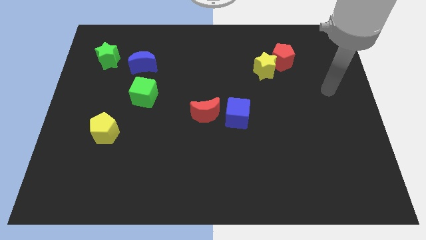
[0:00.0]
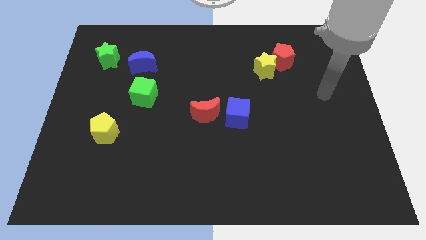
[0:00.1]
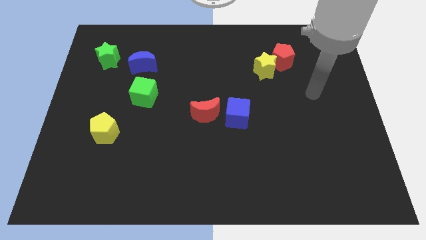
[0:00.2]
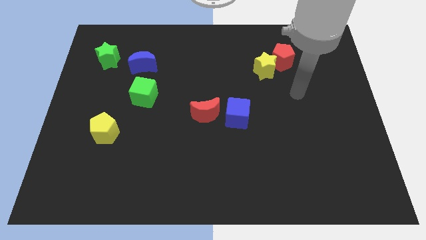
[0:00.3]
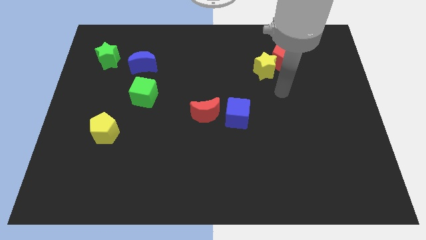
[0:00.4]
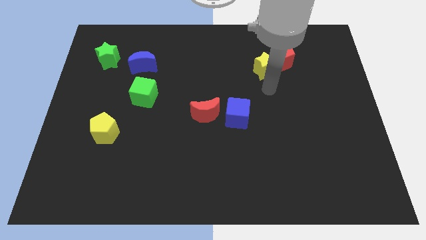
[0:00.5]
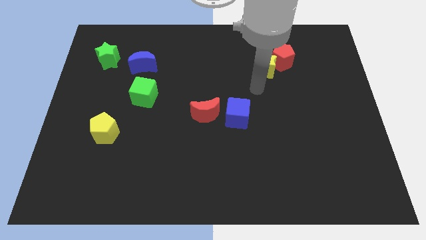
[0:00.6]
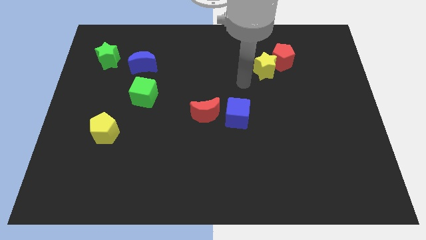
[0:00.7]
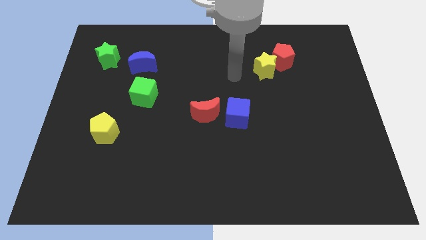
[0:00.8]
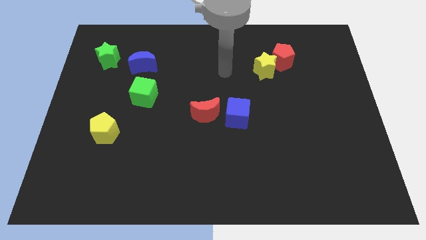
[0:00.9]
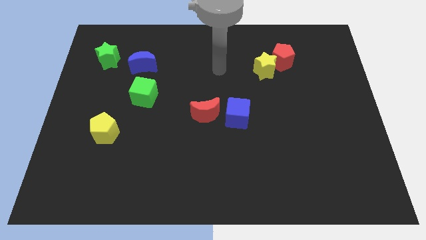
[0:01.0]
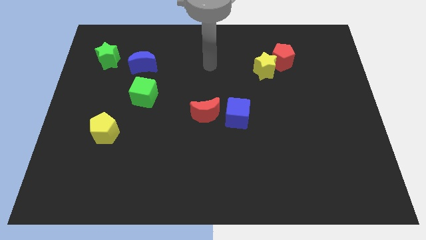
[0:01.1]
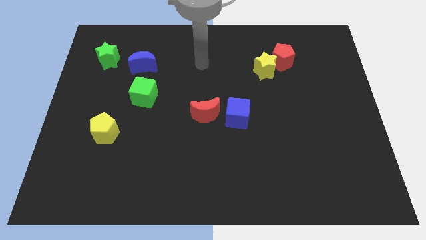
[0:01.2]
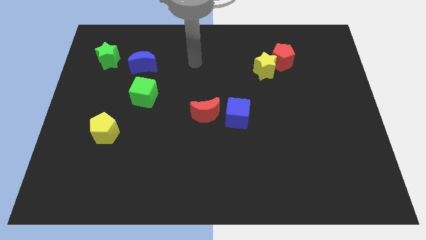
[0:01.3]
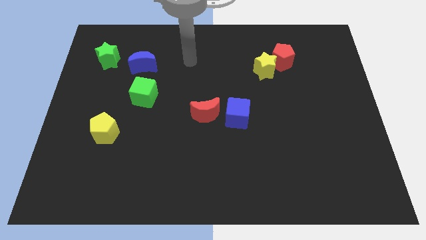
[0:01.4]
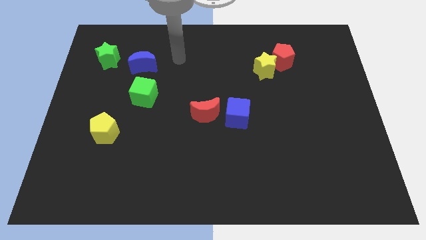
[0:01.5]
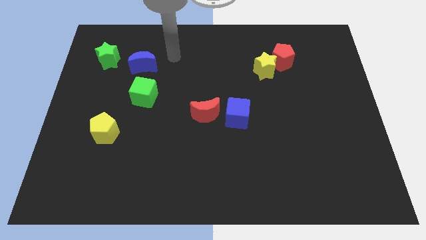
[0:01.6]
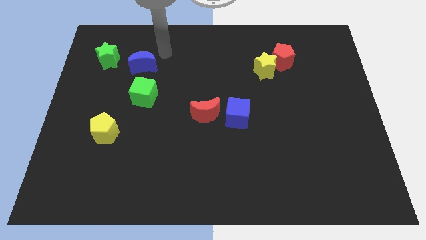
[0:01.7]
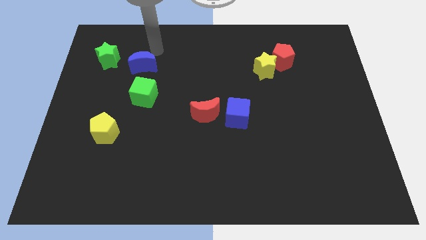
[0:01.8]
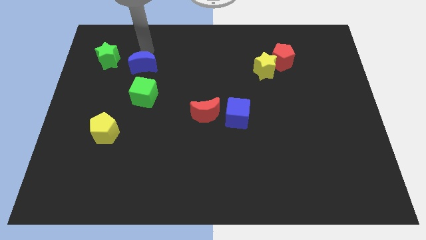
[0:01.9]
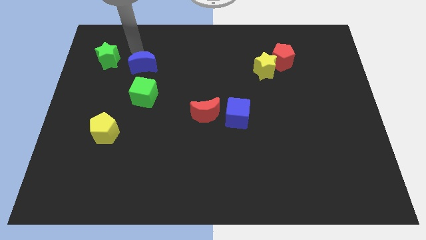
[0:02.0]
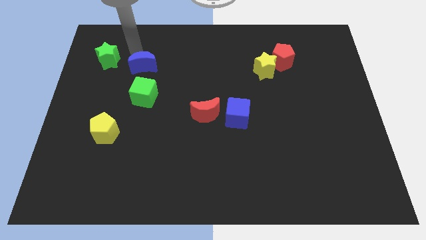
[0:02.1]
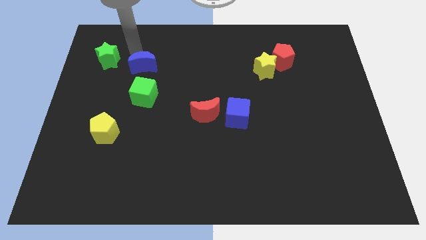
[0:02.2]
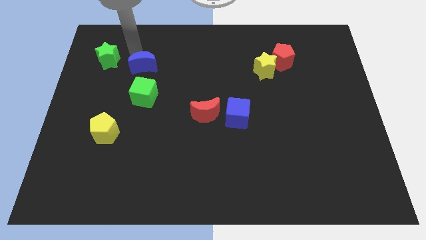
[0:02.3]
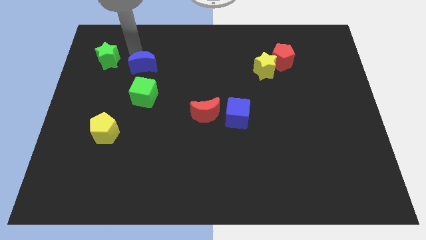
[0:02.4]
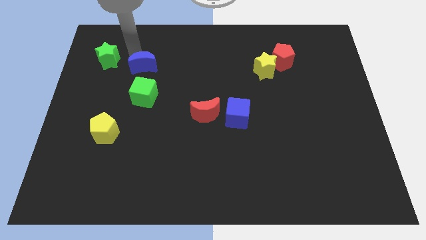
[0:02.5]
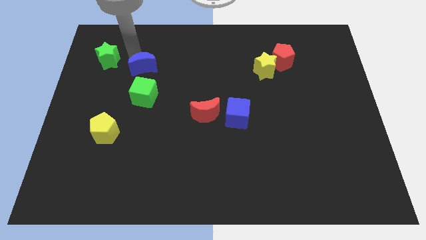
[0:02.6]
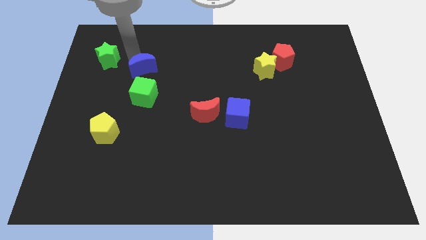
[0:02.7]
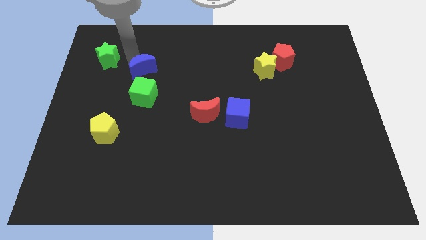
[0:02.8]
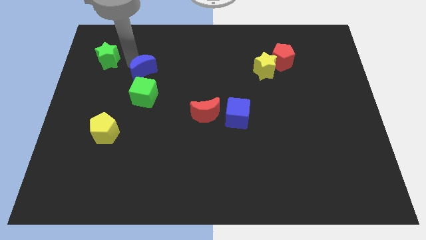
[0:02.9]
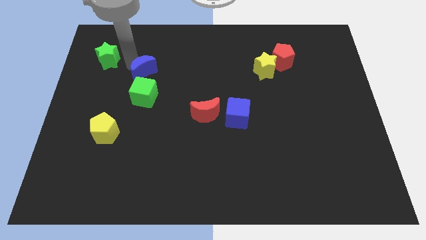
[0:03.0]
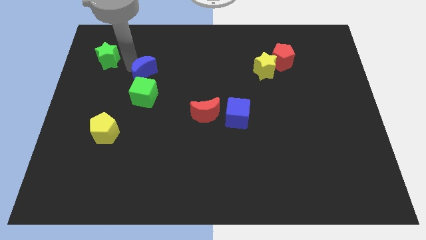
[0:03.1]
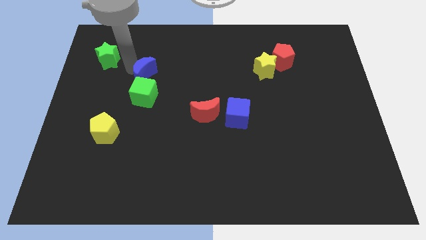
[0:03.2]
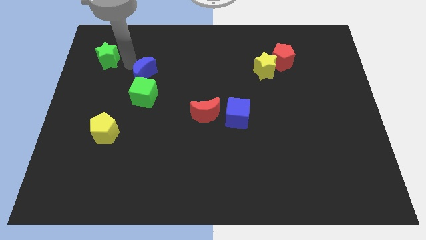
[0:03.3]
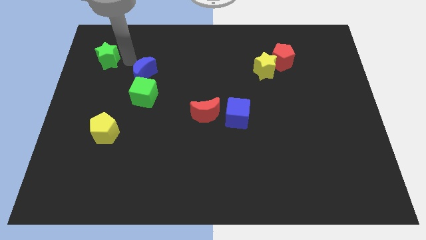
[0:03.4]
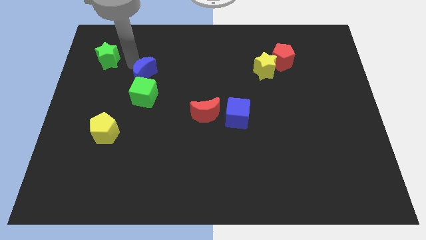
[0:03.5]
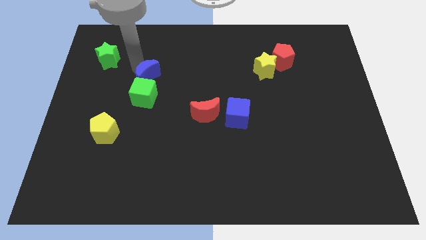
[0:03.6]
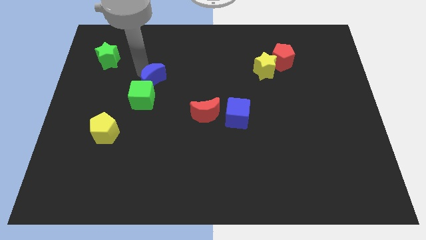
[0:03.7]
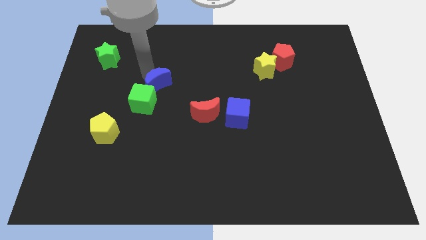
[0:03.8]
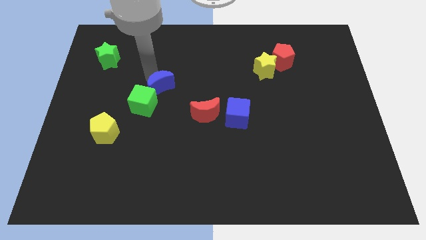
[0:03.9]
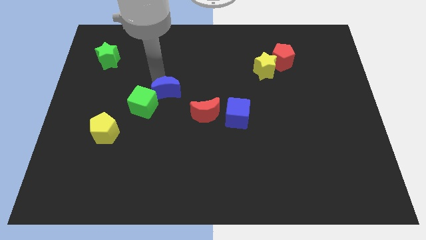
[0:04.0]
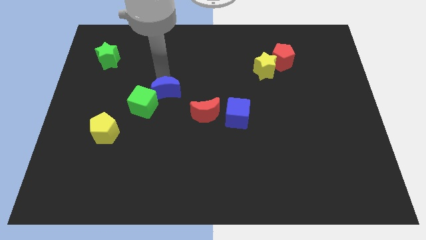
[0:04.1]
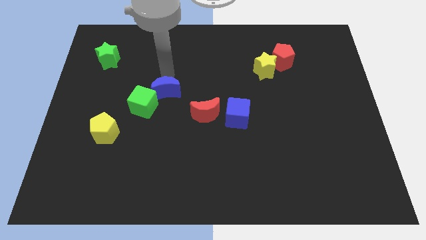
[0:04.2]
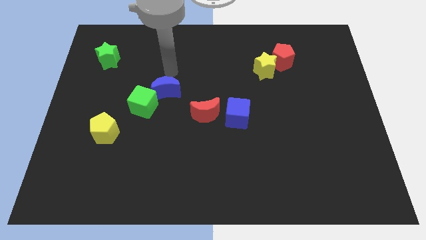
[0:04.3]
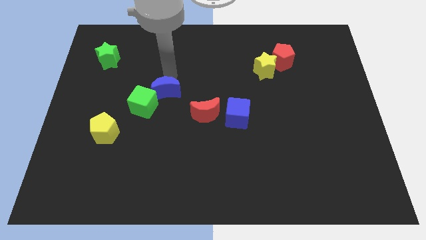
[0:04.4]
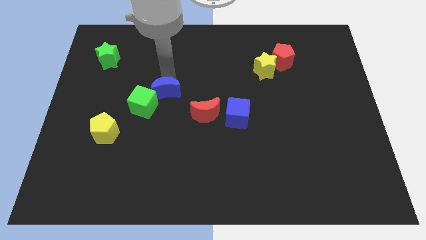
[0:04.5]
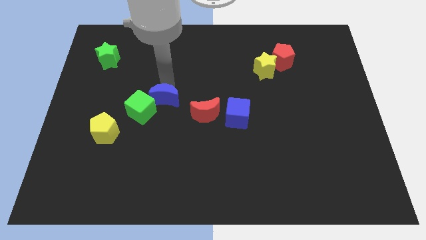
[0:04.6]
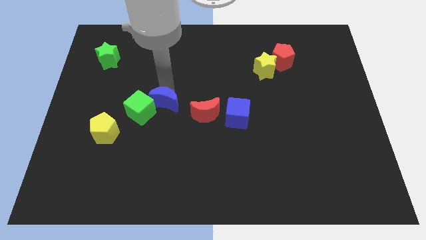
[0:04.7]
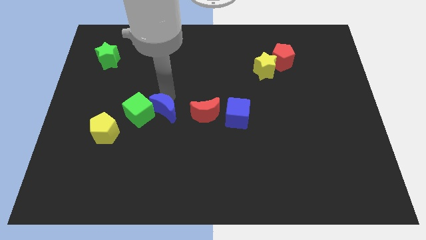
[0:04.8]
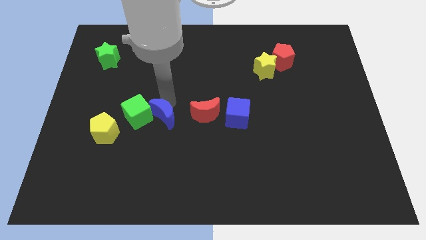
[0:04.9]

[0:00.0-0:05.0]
slide the blue moon to the right side of the yellow pentagon

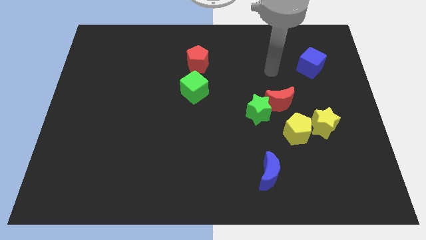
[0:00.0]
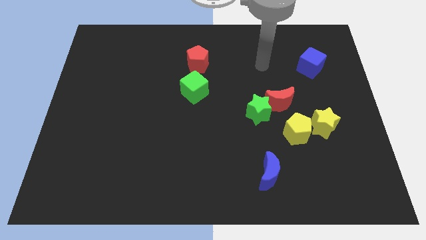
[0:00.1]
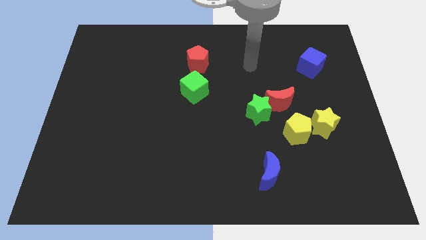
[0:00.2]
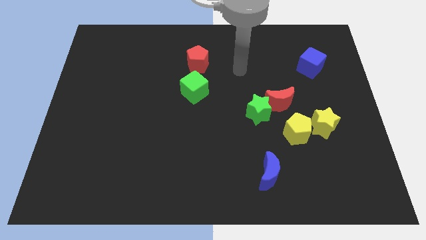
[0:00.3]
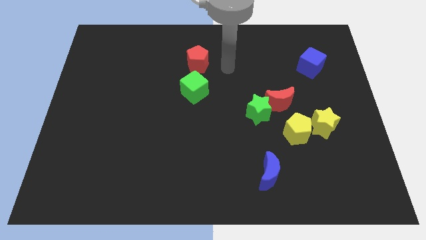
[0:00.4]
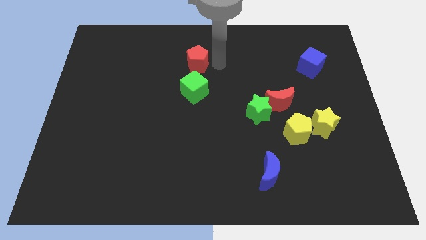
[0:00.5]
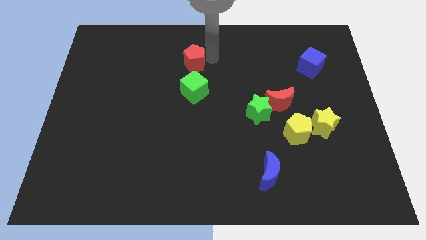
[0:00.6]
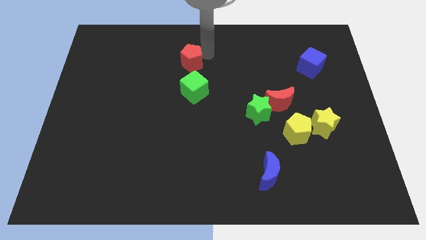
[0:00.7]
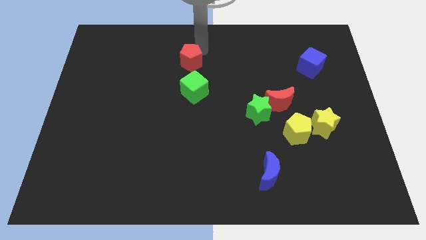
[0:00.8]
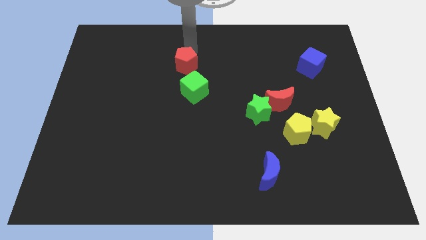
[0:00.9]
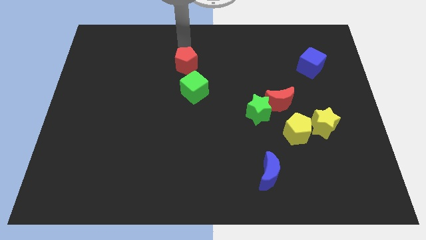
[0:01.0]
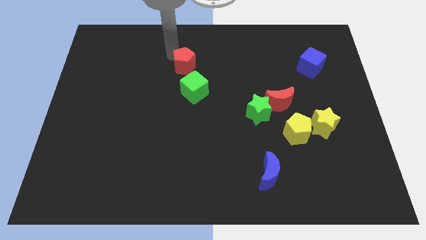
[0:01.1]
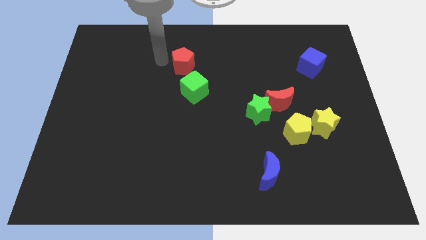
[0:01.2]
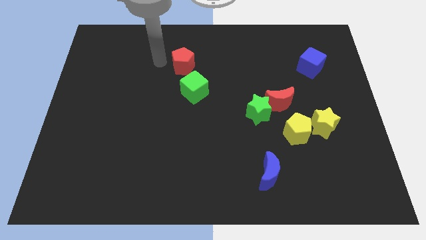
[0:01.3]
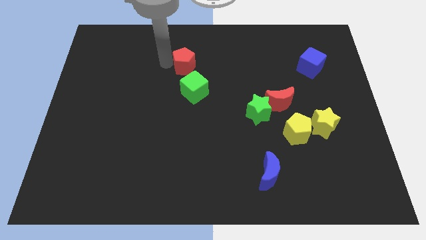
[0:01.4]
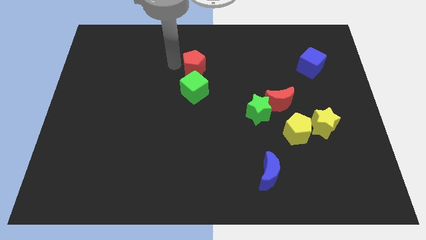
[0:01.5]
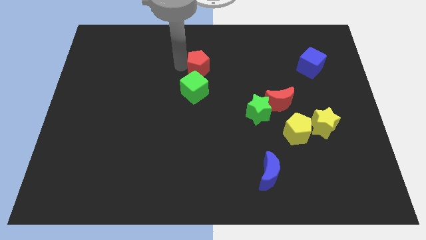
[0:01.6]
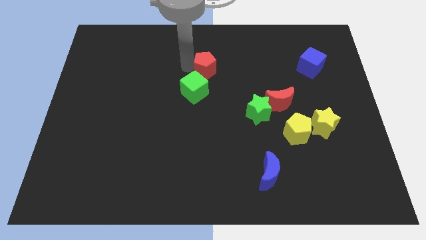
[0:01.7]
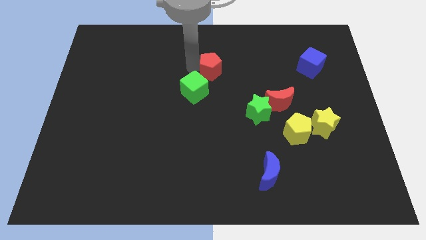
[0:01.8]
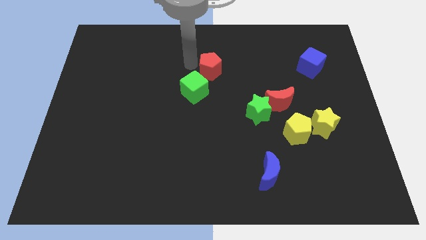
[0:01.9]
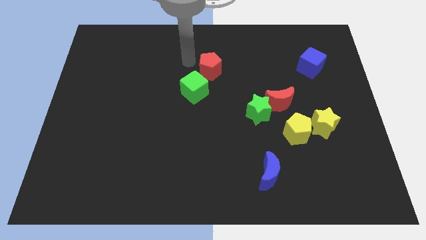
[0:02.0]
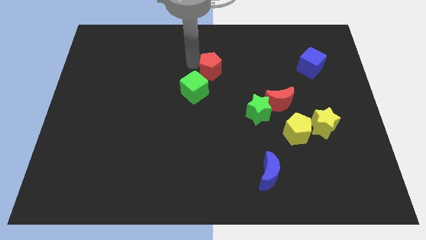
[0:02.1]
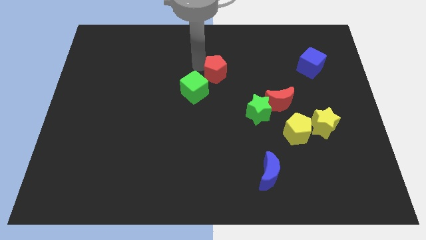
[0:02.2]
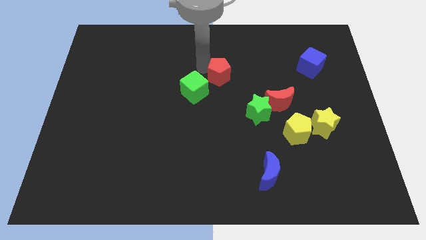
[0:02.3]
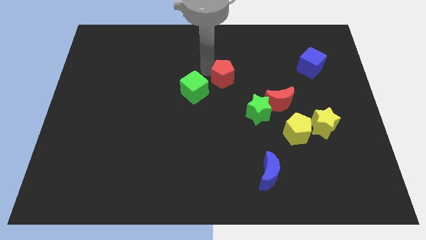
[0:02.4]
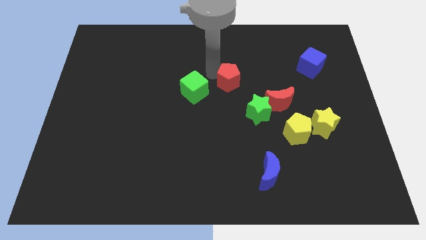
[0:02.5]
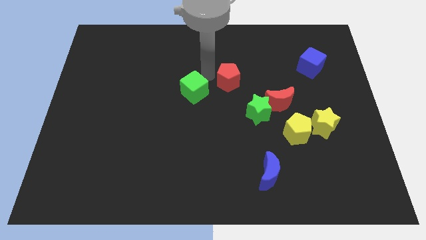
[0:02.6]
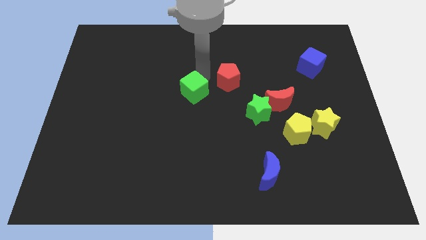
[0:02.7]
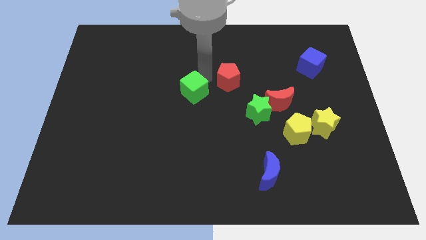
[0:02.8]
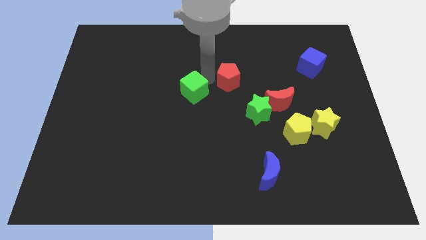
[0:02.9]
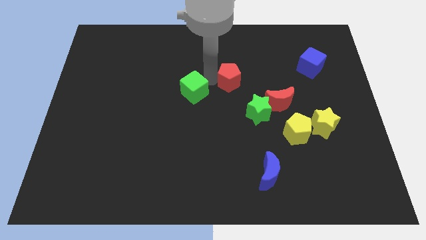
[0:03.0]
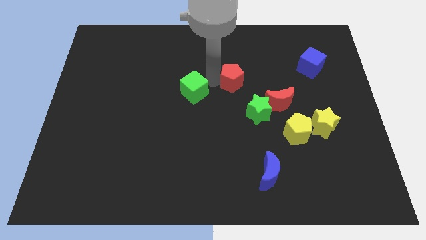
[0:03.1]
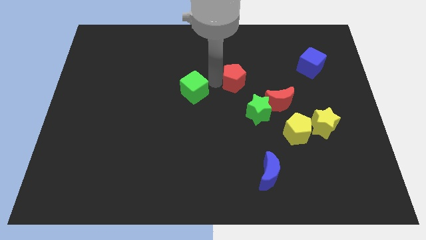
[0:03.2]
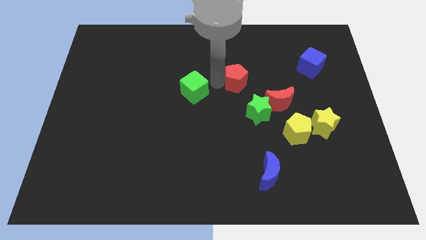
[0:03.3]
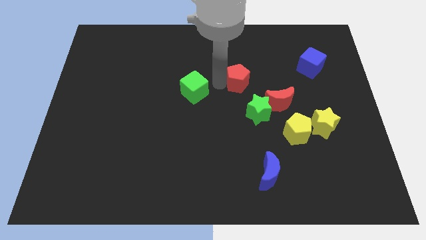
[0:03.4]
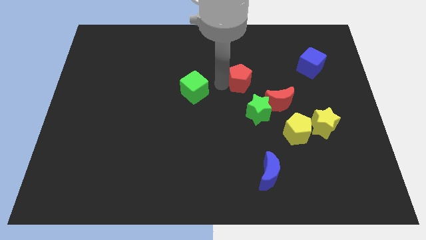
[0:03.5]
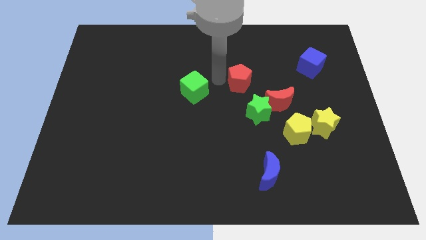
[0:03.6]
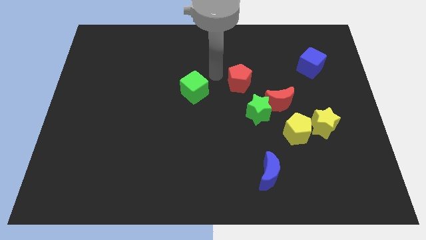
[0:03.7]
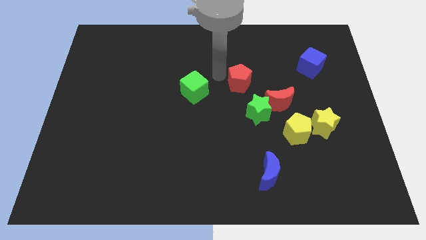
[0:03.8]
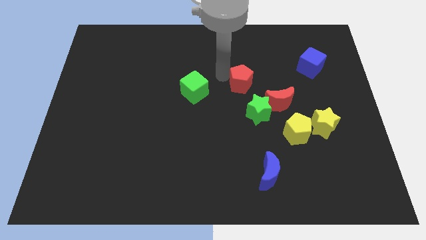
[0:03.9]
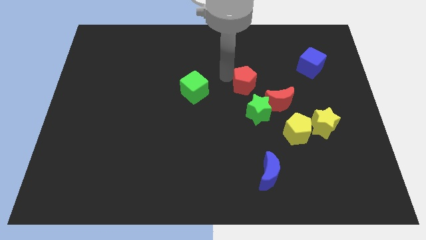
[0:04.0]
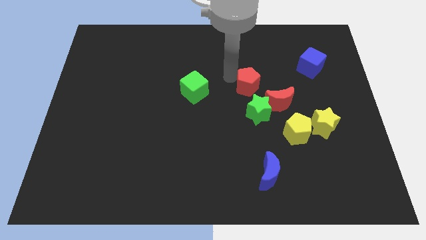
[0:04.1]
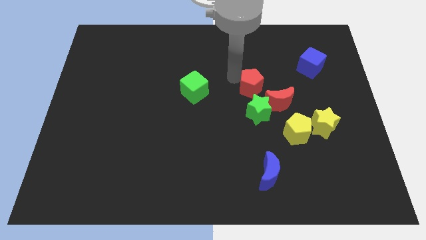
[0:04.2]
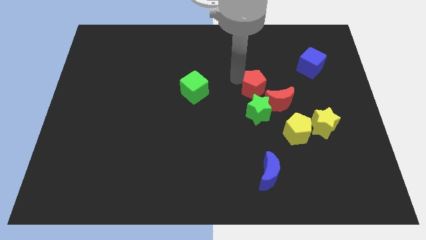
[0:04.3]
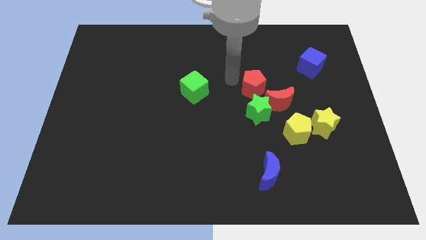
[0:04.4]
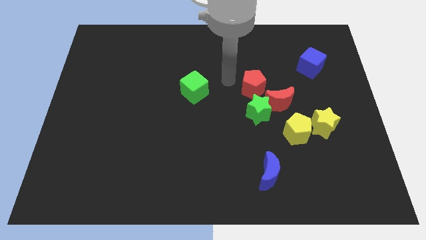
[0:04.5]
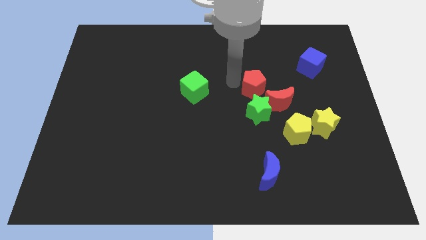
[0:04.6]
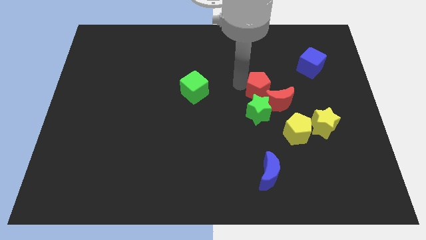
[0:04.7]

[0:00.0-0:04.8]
put the red pentagon to the top right side of the green star
